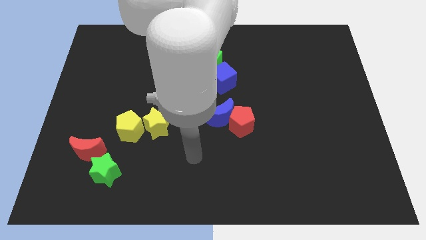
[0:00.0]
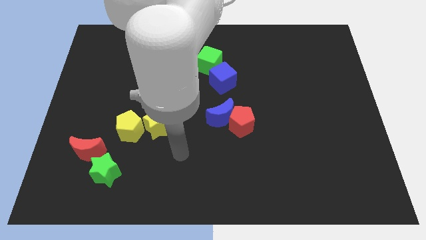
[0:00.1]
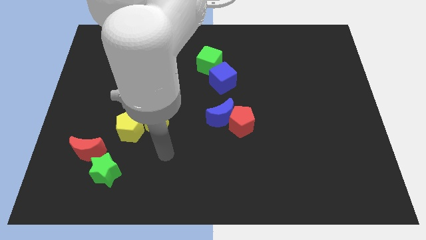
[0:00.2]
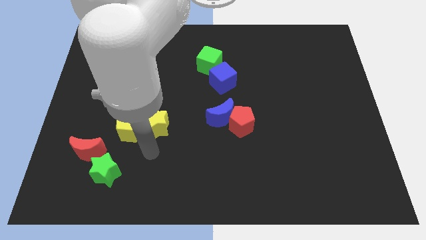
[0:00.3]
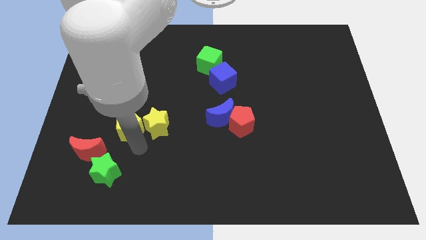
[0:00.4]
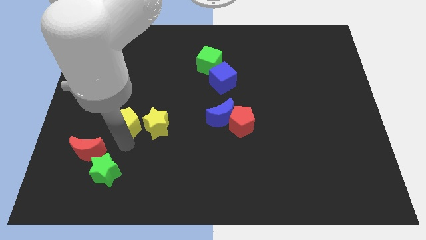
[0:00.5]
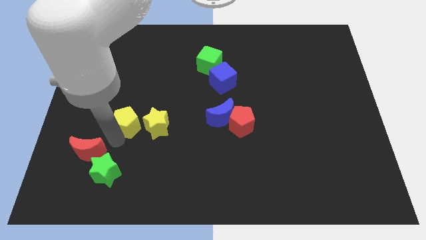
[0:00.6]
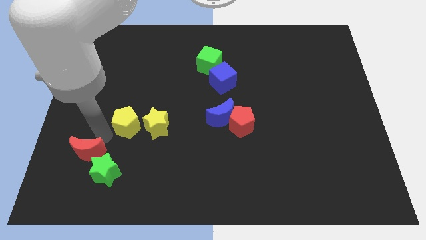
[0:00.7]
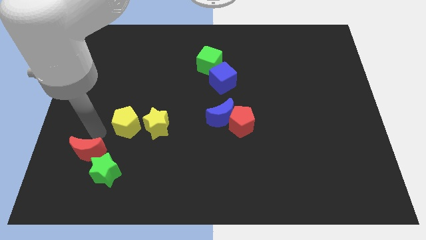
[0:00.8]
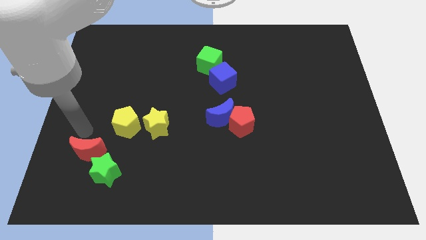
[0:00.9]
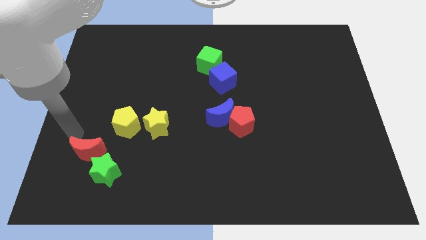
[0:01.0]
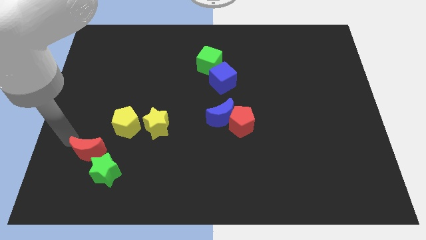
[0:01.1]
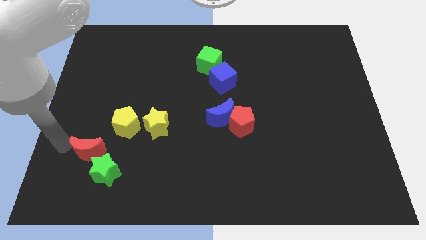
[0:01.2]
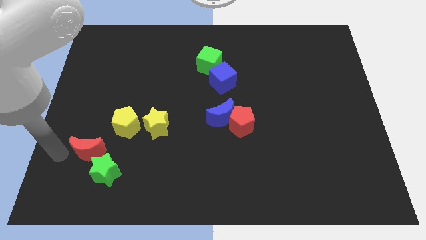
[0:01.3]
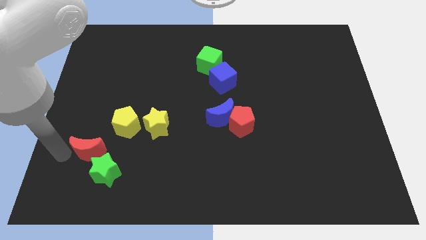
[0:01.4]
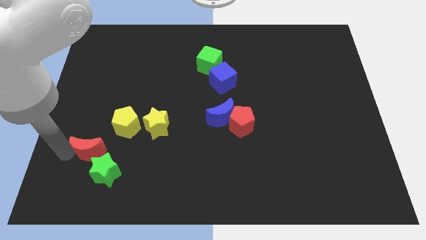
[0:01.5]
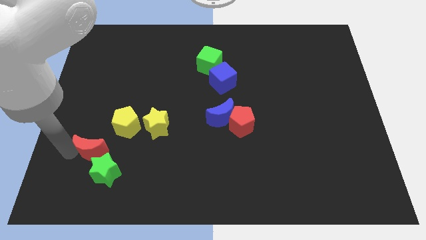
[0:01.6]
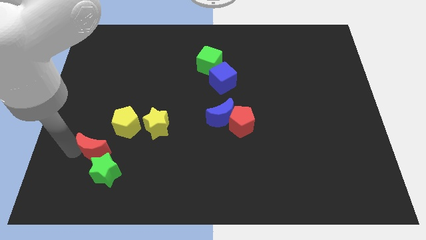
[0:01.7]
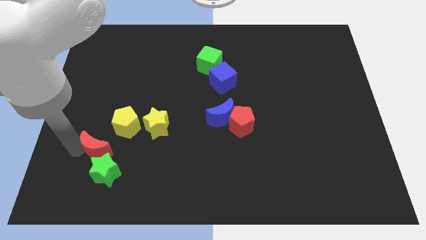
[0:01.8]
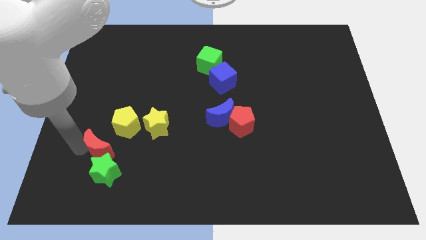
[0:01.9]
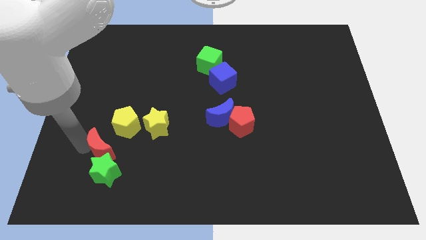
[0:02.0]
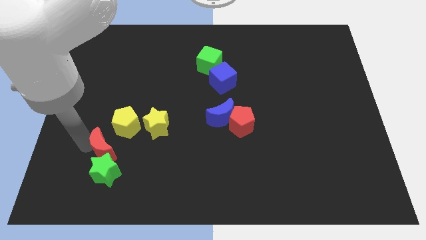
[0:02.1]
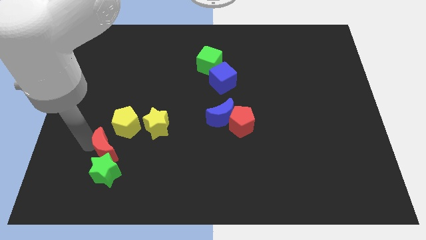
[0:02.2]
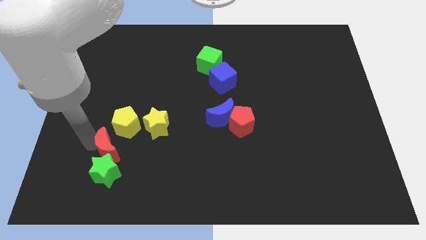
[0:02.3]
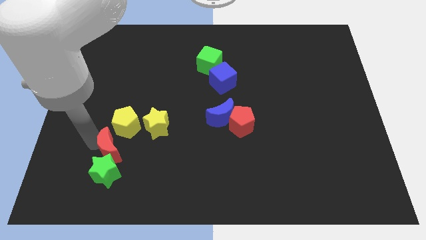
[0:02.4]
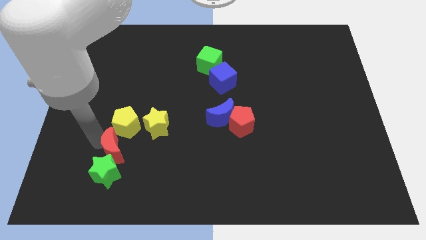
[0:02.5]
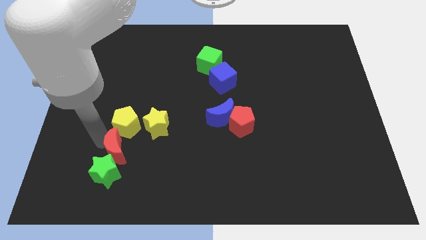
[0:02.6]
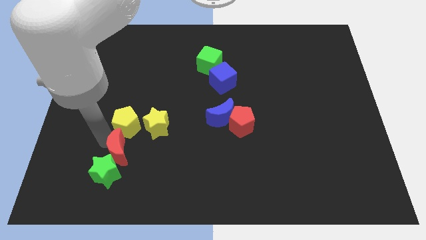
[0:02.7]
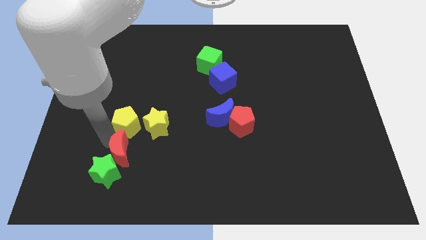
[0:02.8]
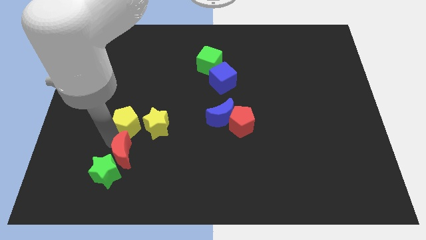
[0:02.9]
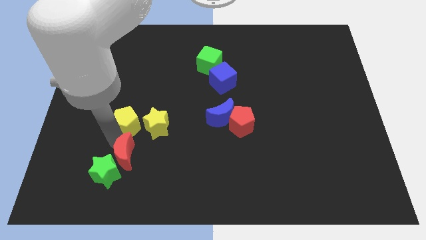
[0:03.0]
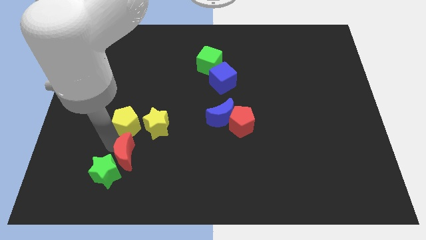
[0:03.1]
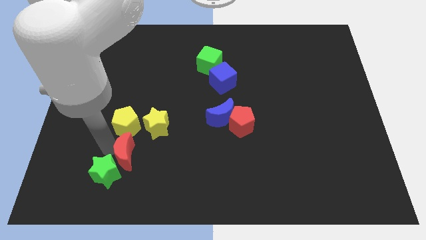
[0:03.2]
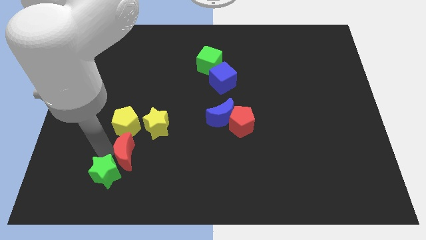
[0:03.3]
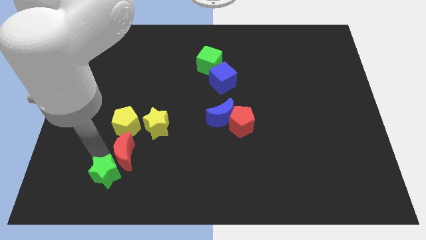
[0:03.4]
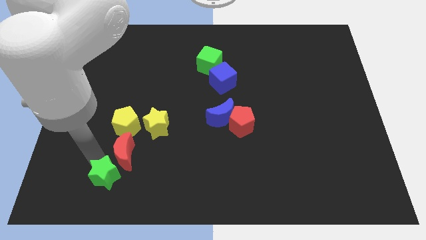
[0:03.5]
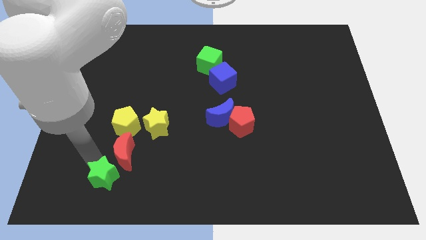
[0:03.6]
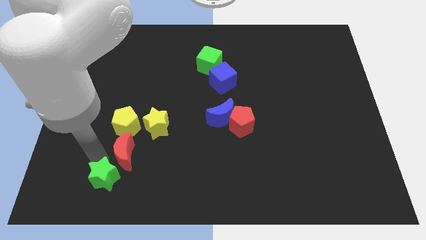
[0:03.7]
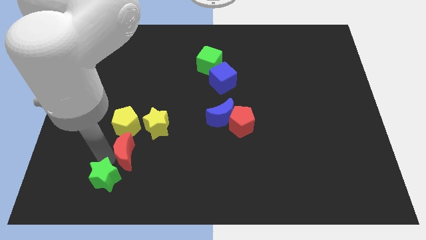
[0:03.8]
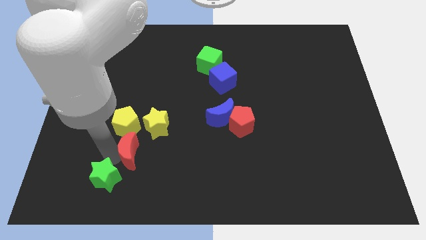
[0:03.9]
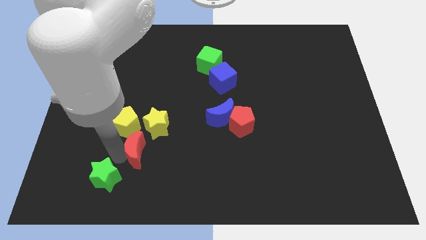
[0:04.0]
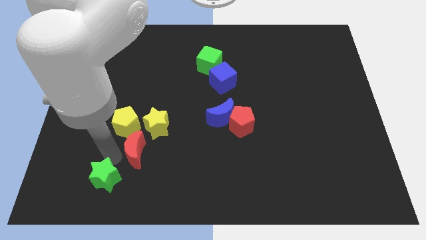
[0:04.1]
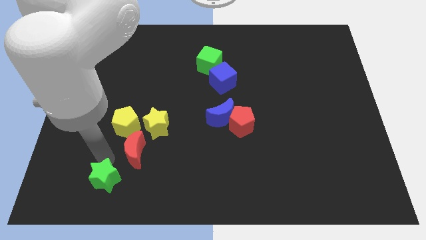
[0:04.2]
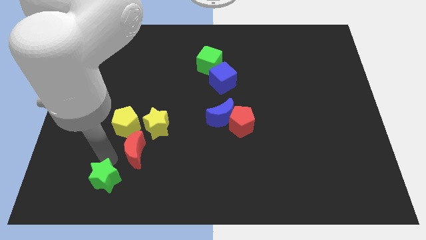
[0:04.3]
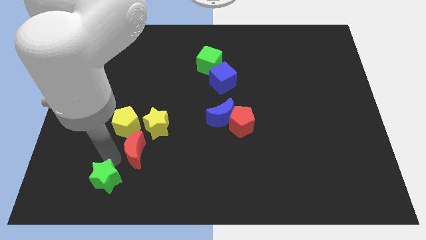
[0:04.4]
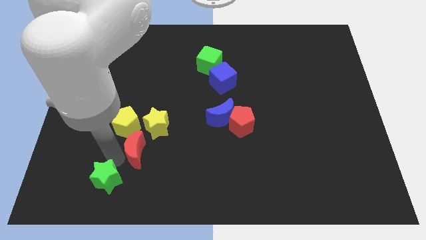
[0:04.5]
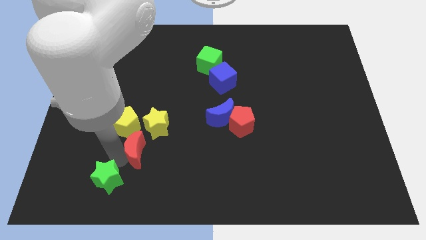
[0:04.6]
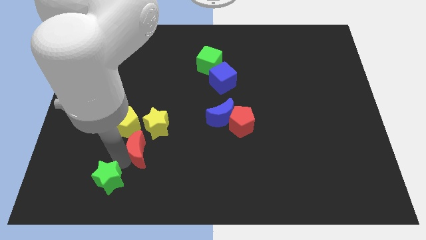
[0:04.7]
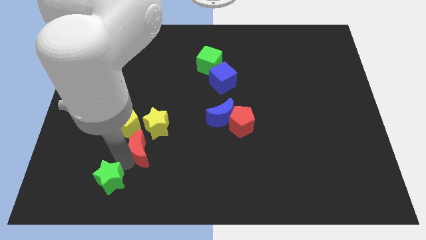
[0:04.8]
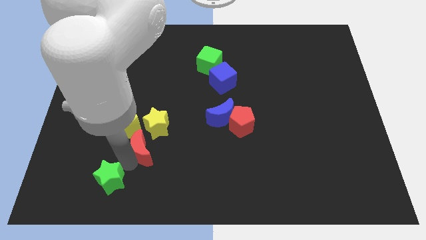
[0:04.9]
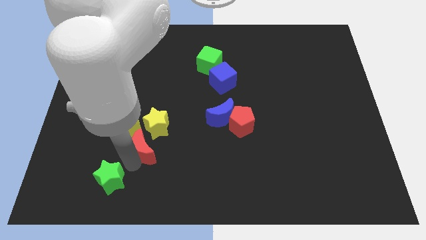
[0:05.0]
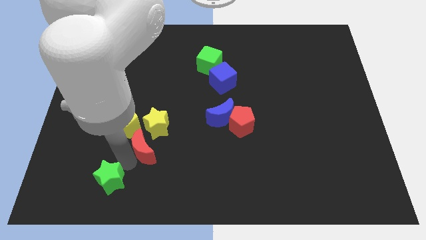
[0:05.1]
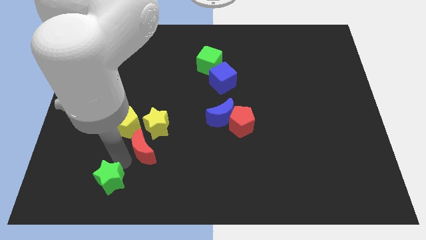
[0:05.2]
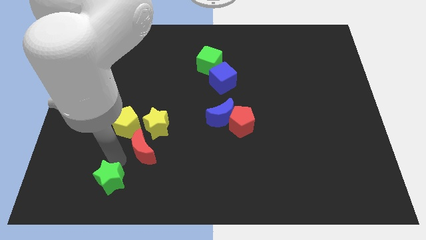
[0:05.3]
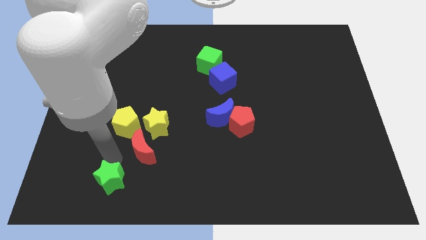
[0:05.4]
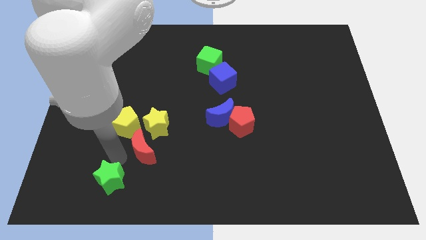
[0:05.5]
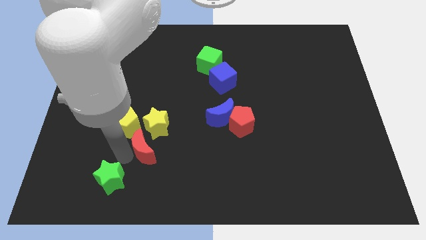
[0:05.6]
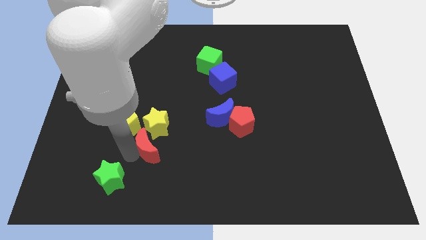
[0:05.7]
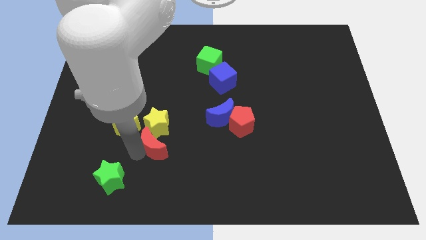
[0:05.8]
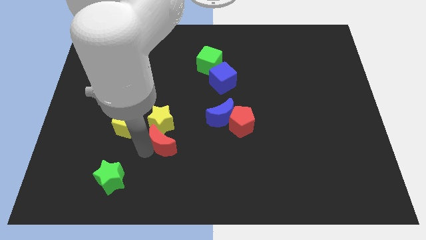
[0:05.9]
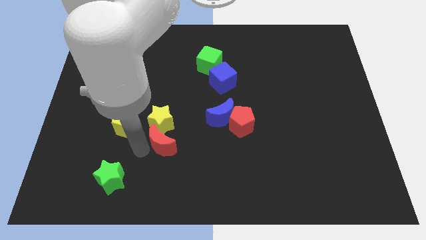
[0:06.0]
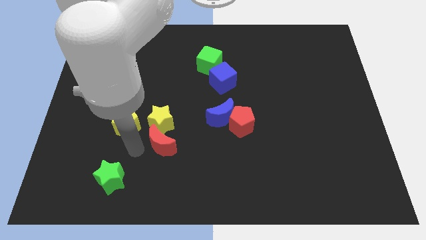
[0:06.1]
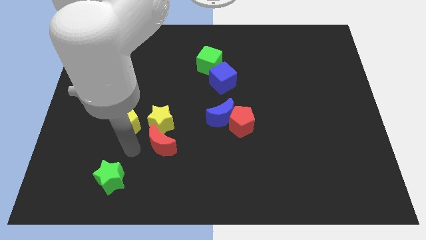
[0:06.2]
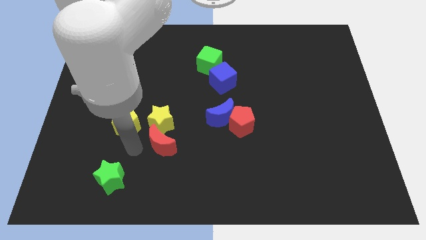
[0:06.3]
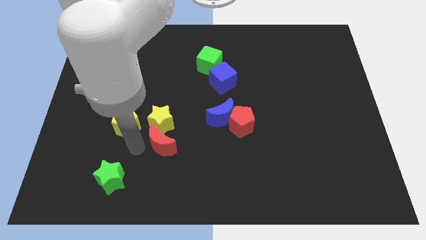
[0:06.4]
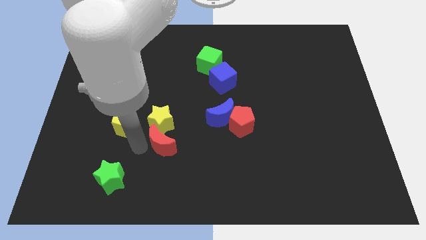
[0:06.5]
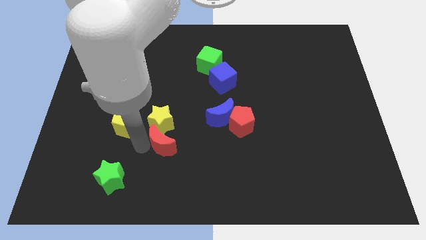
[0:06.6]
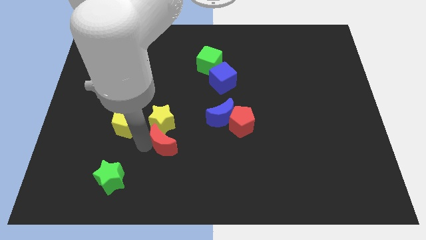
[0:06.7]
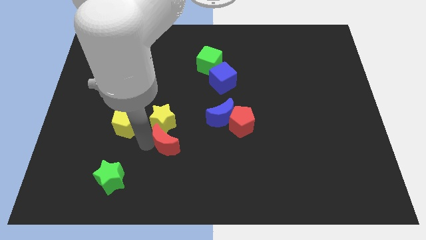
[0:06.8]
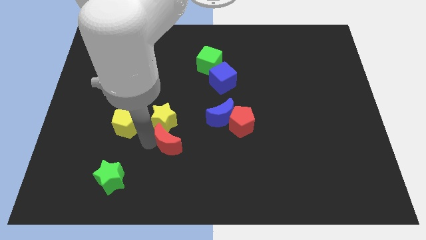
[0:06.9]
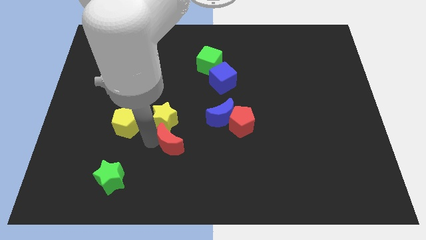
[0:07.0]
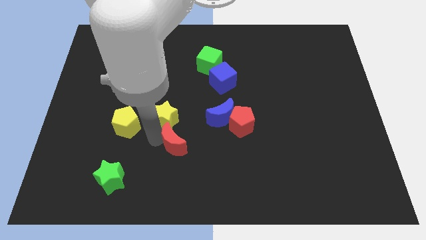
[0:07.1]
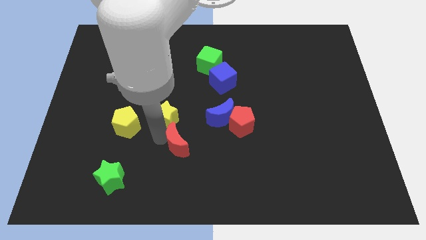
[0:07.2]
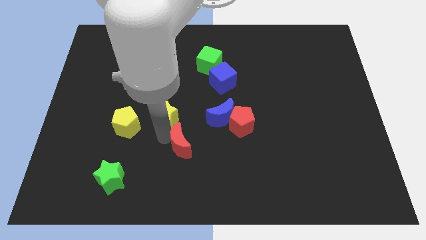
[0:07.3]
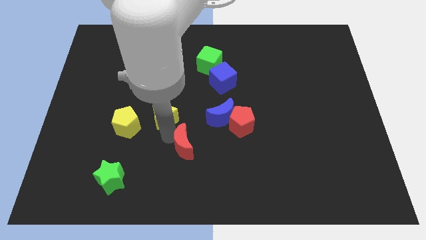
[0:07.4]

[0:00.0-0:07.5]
slide the red moon right

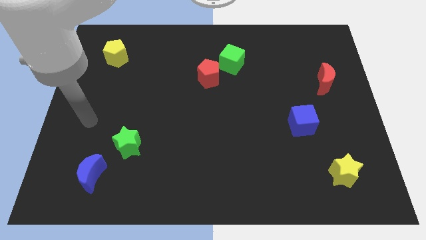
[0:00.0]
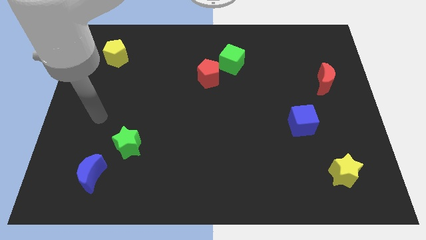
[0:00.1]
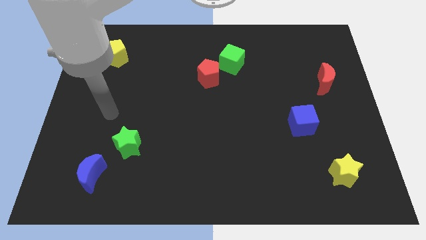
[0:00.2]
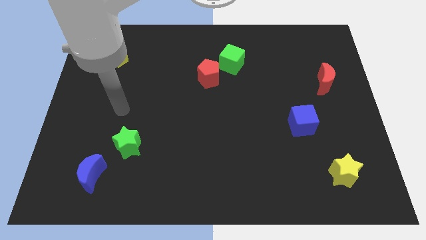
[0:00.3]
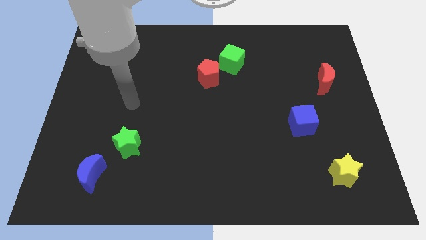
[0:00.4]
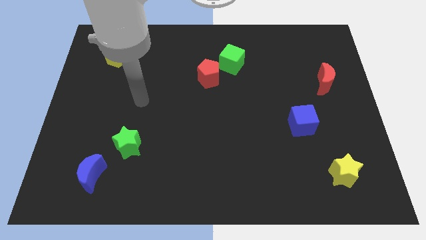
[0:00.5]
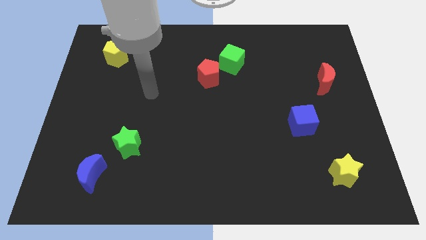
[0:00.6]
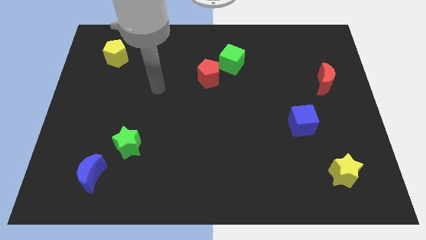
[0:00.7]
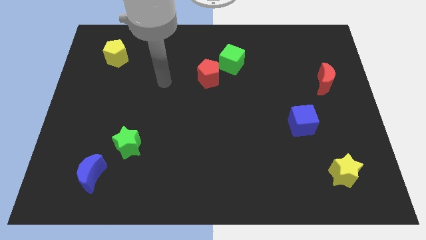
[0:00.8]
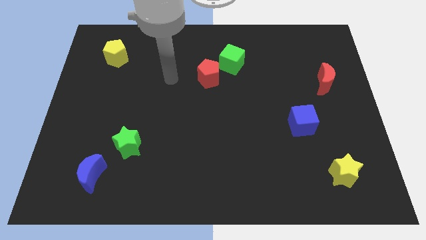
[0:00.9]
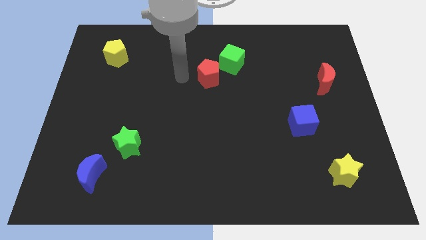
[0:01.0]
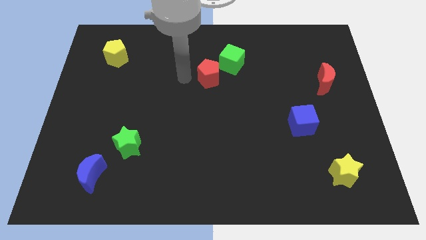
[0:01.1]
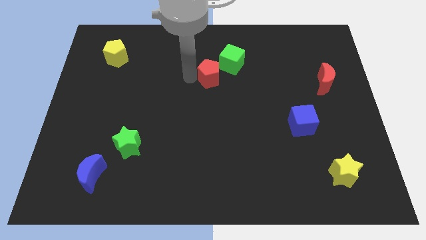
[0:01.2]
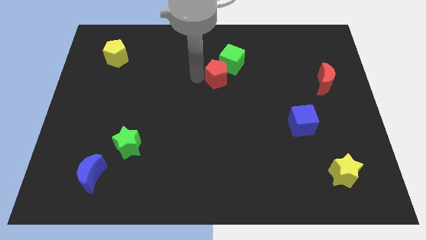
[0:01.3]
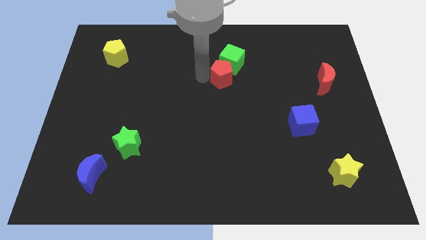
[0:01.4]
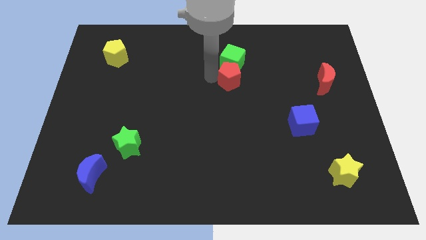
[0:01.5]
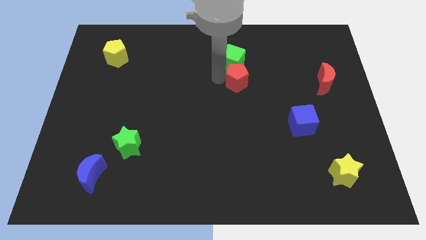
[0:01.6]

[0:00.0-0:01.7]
push the red pentagon right slightly
